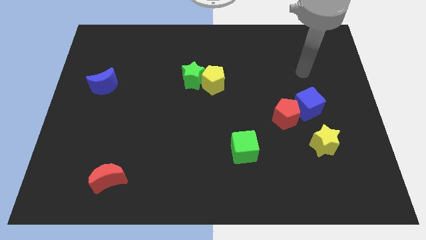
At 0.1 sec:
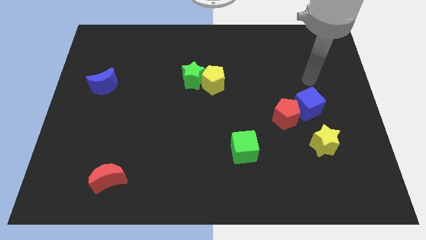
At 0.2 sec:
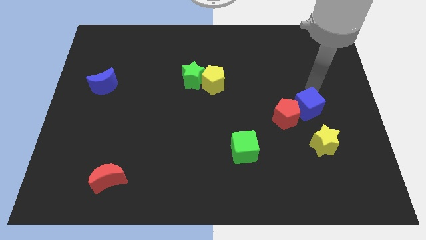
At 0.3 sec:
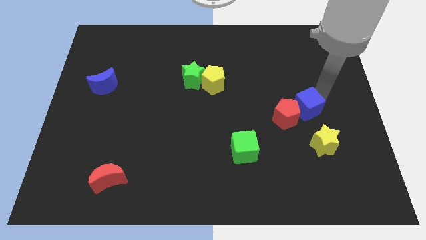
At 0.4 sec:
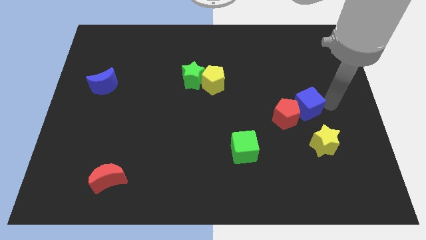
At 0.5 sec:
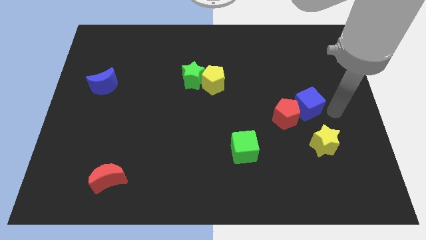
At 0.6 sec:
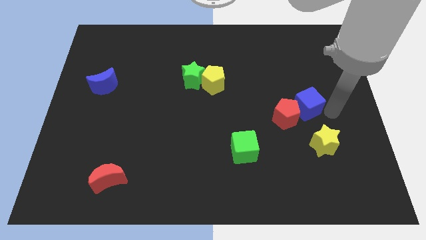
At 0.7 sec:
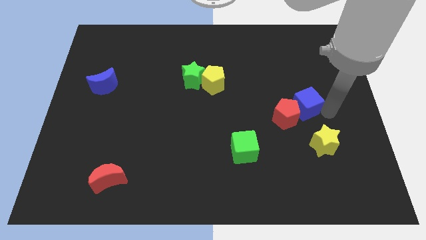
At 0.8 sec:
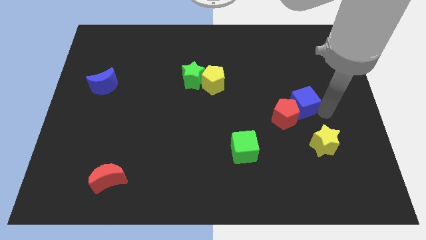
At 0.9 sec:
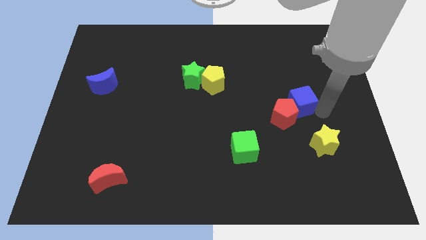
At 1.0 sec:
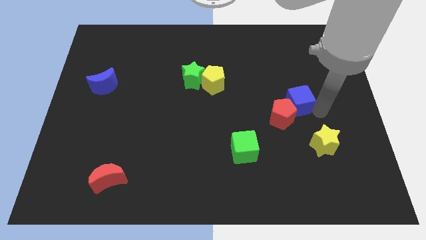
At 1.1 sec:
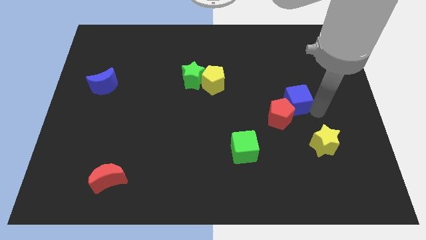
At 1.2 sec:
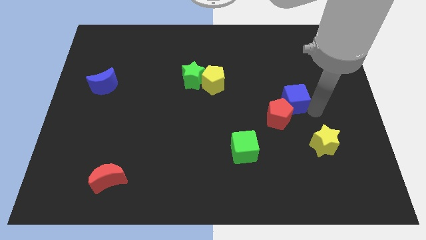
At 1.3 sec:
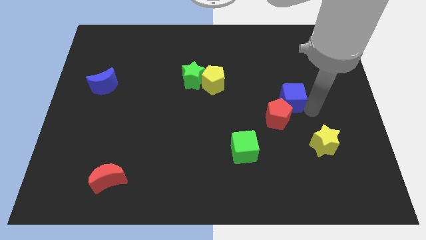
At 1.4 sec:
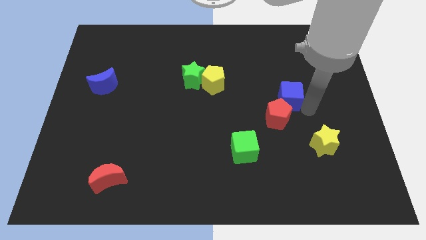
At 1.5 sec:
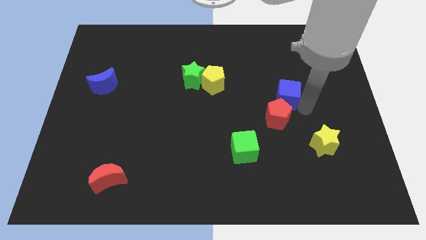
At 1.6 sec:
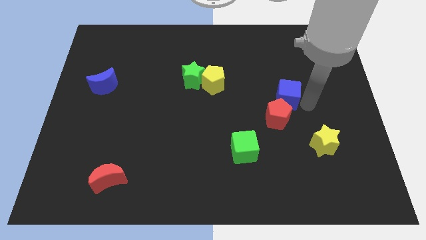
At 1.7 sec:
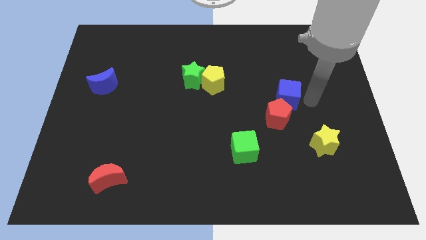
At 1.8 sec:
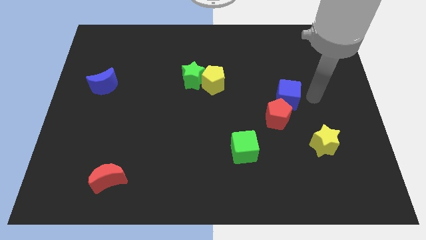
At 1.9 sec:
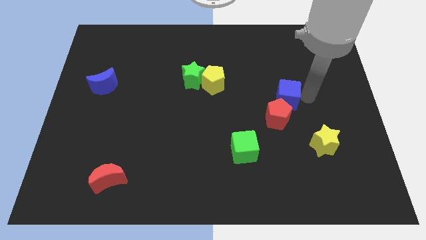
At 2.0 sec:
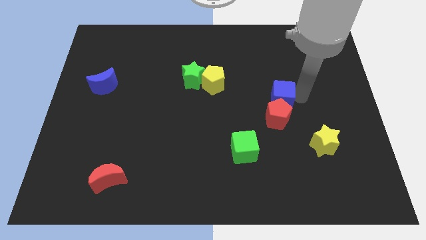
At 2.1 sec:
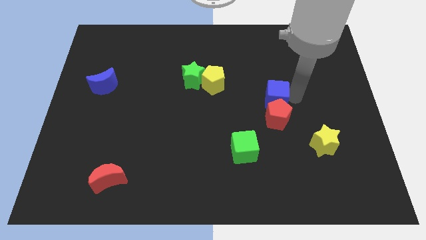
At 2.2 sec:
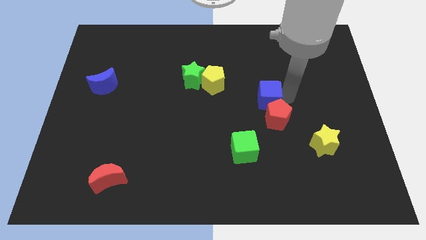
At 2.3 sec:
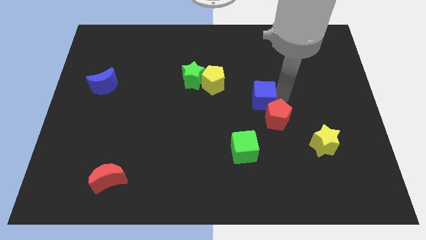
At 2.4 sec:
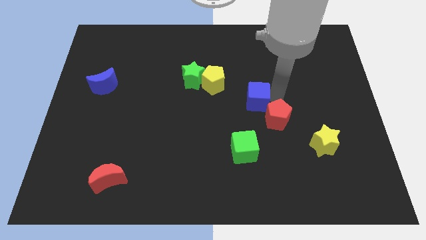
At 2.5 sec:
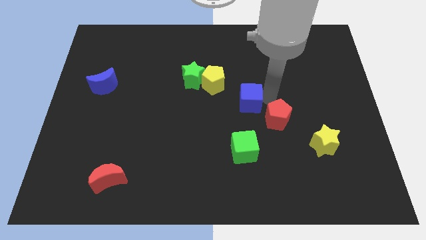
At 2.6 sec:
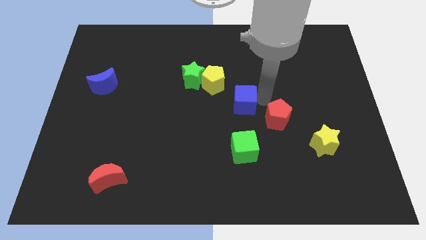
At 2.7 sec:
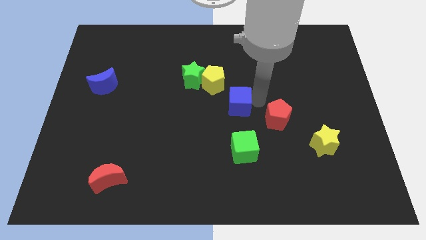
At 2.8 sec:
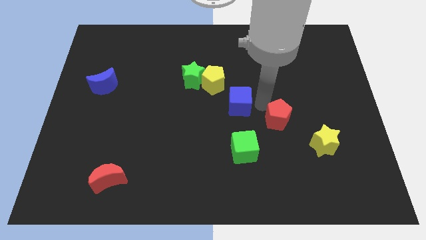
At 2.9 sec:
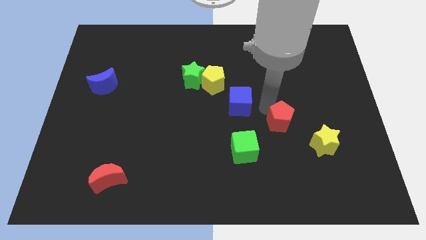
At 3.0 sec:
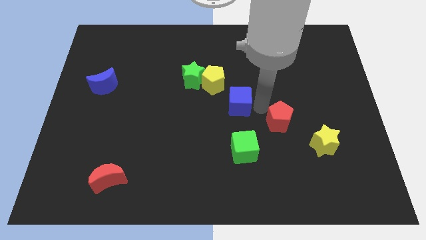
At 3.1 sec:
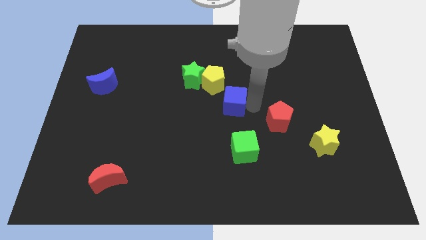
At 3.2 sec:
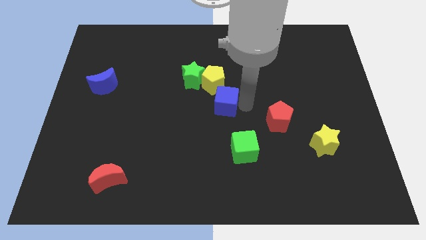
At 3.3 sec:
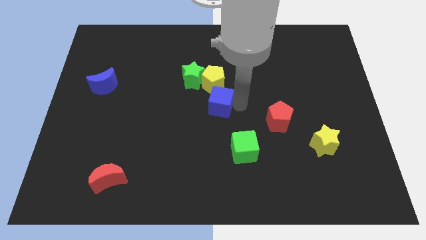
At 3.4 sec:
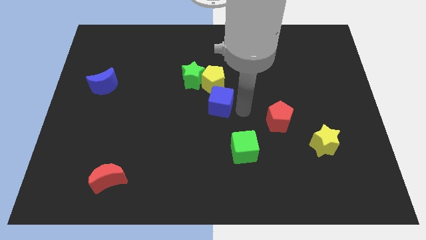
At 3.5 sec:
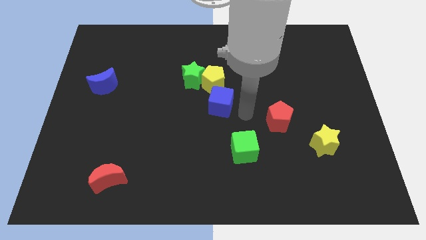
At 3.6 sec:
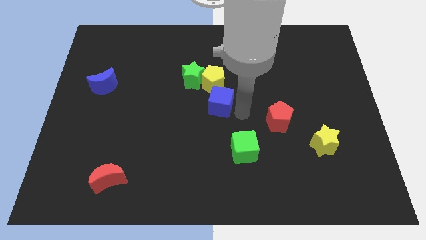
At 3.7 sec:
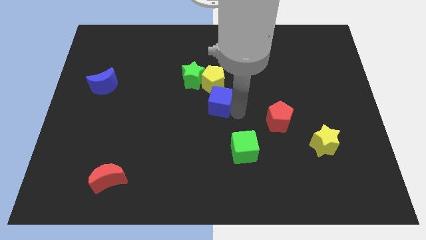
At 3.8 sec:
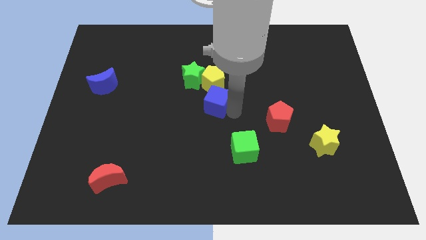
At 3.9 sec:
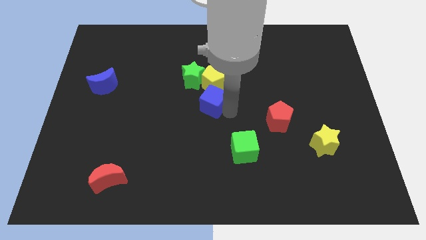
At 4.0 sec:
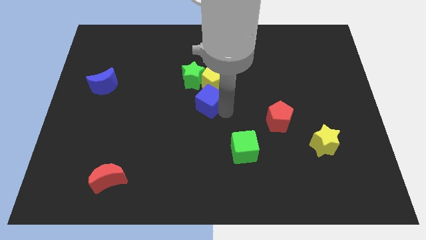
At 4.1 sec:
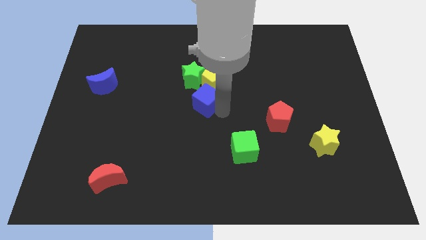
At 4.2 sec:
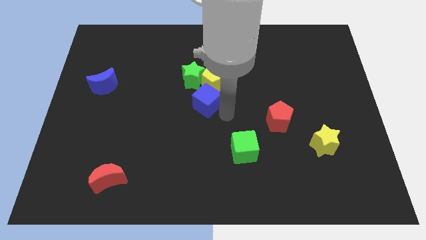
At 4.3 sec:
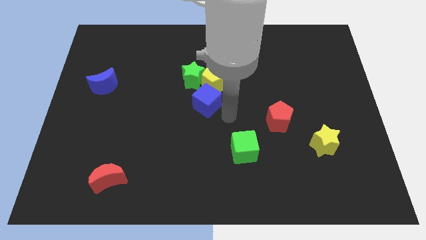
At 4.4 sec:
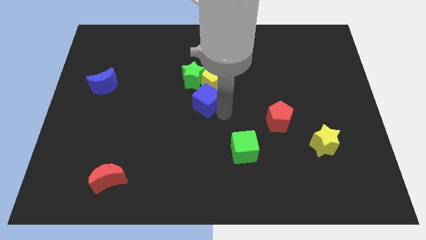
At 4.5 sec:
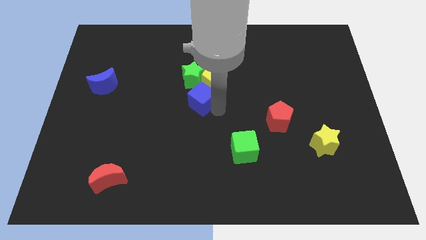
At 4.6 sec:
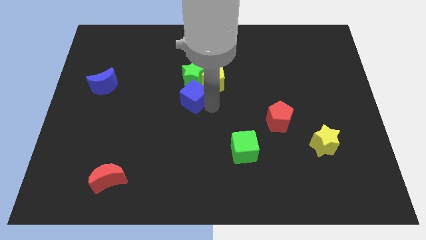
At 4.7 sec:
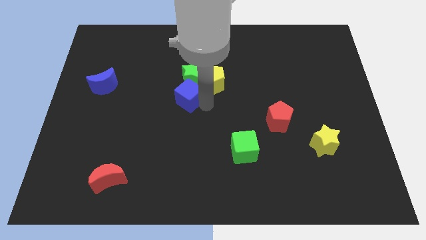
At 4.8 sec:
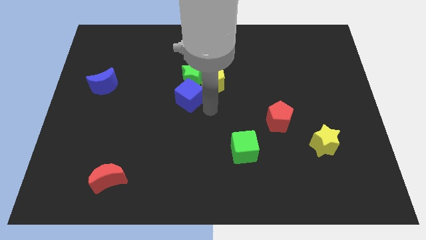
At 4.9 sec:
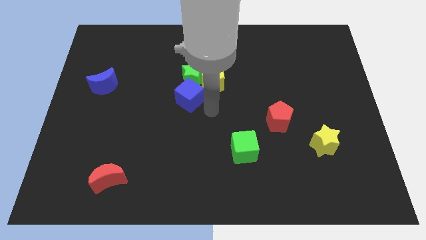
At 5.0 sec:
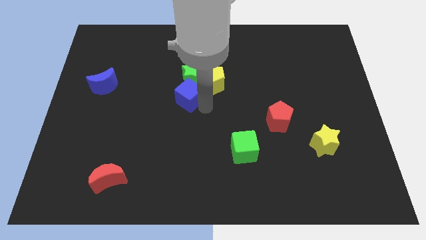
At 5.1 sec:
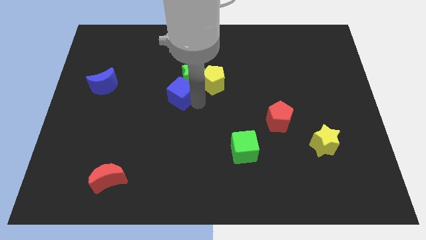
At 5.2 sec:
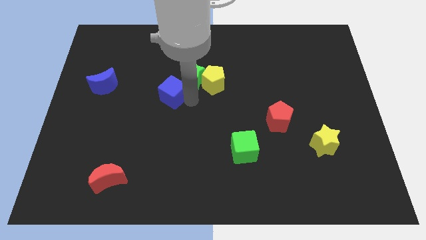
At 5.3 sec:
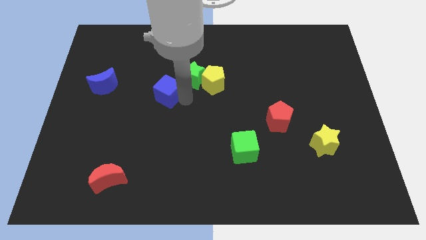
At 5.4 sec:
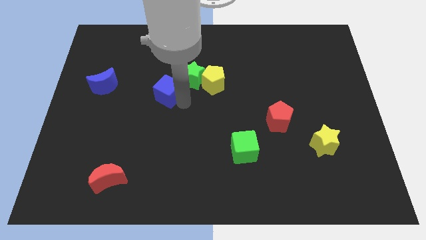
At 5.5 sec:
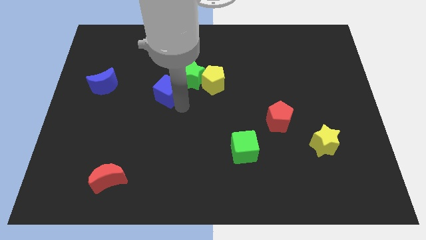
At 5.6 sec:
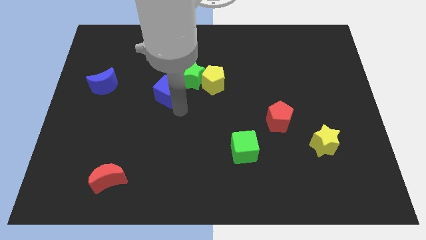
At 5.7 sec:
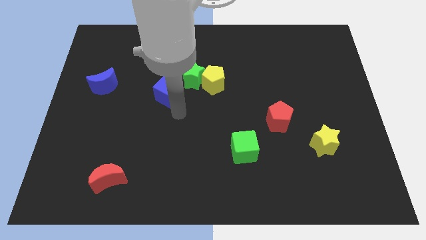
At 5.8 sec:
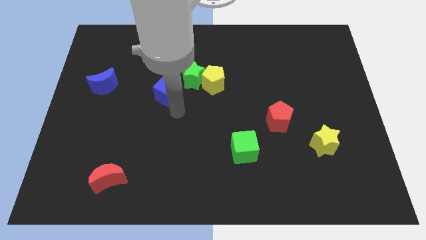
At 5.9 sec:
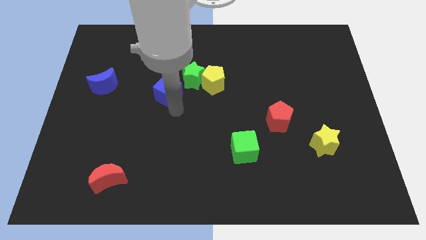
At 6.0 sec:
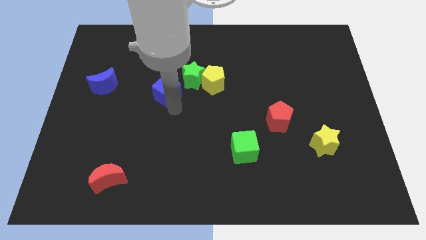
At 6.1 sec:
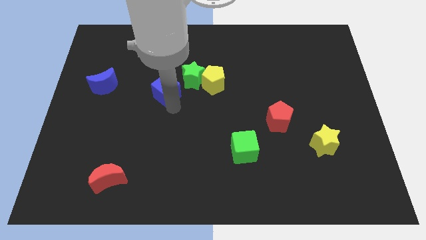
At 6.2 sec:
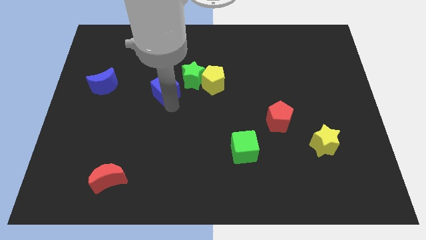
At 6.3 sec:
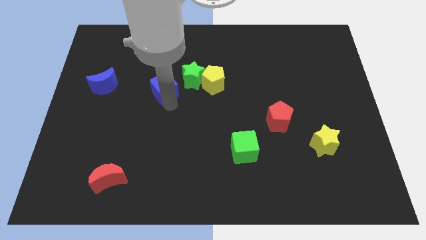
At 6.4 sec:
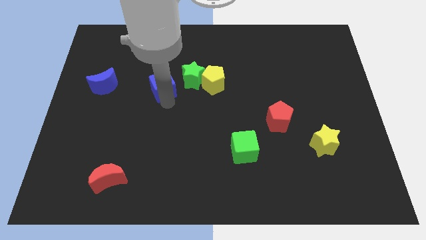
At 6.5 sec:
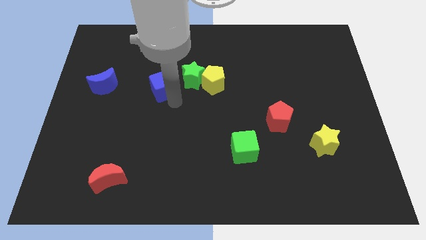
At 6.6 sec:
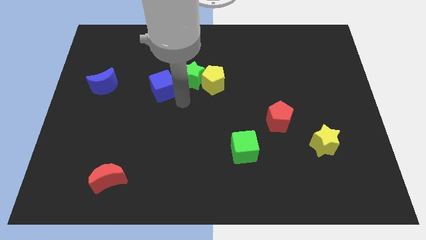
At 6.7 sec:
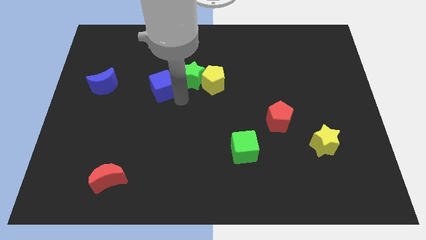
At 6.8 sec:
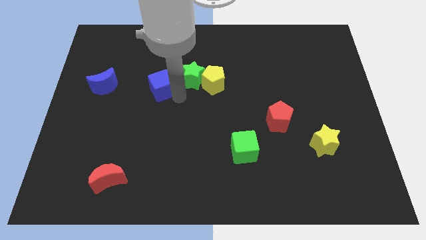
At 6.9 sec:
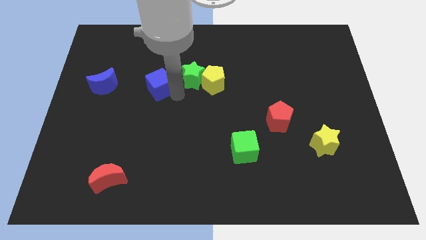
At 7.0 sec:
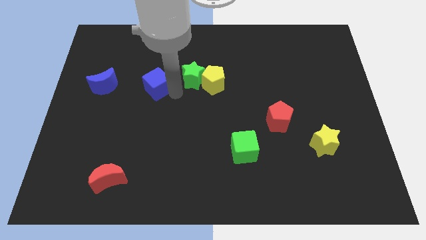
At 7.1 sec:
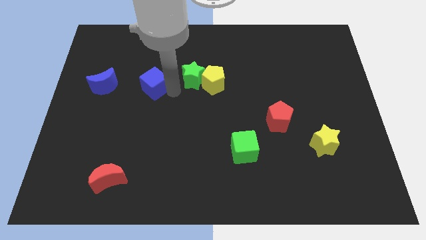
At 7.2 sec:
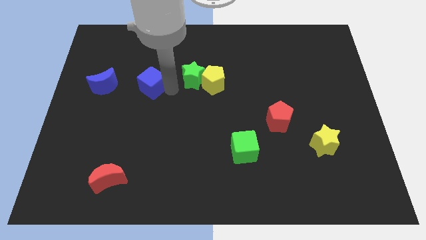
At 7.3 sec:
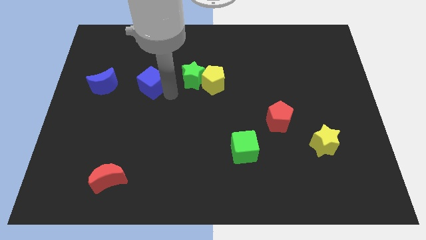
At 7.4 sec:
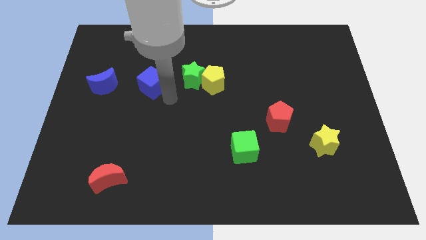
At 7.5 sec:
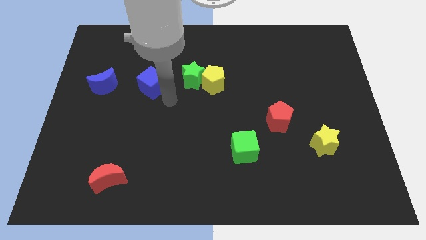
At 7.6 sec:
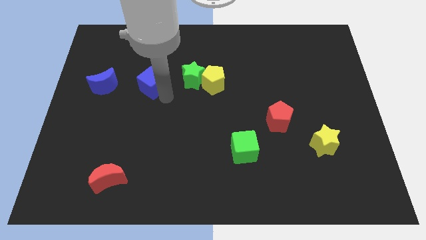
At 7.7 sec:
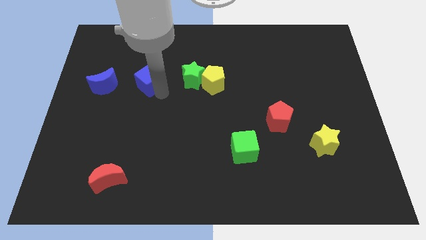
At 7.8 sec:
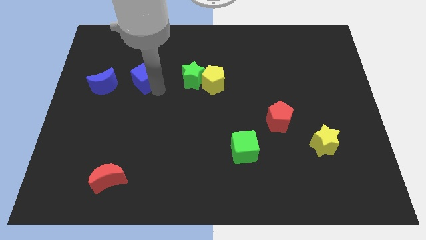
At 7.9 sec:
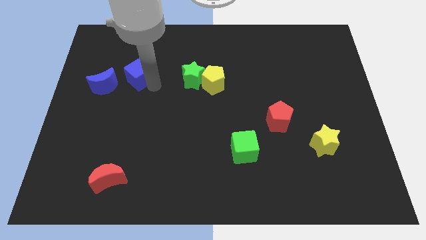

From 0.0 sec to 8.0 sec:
push the blue cube to the top right of the blue moon

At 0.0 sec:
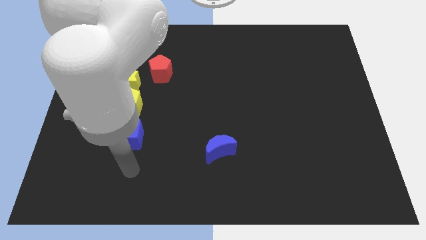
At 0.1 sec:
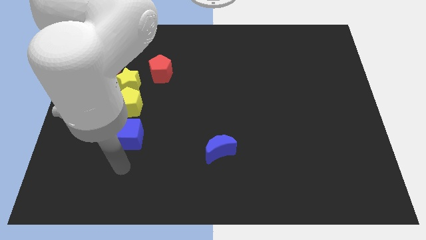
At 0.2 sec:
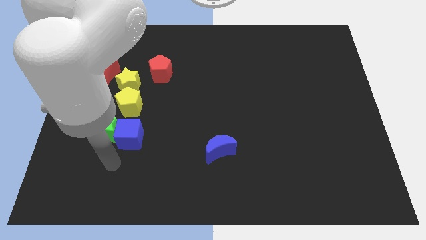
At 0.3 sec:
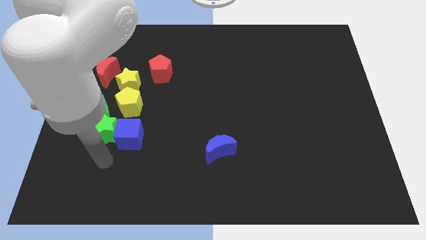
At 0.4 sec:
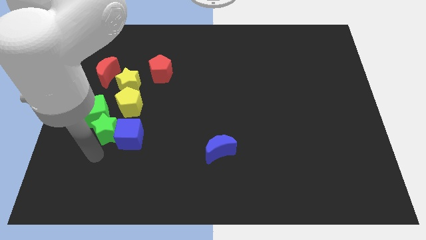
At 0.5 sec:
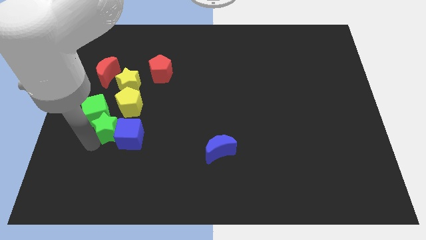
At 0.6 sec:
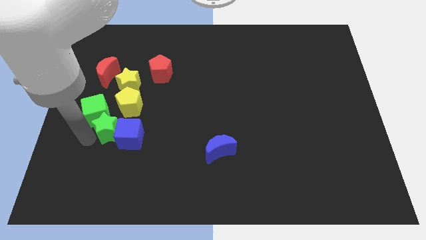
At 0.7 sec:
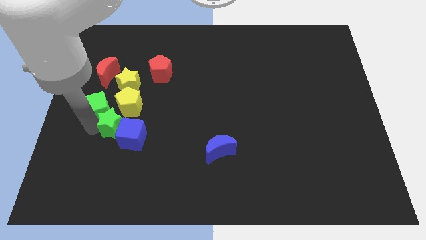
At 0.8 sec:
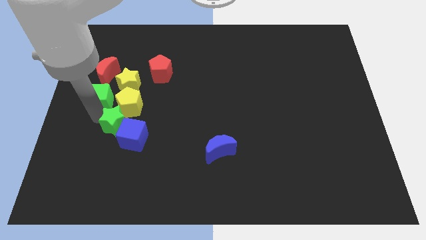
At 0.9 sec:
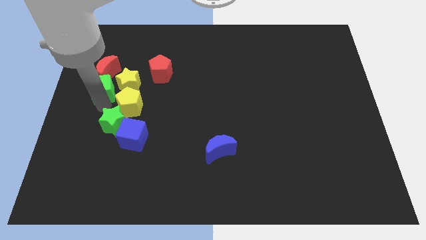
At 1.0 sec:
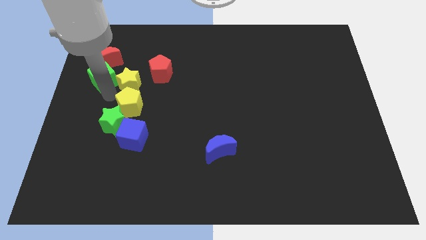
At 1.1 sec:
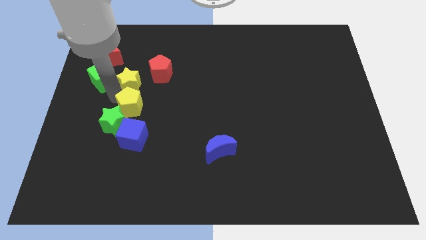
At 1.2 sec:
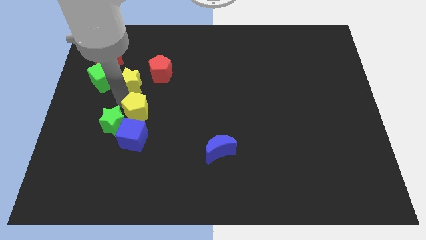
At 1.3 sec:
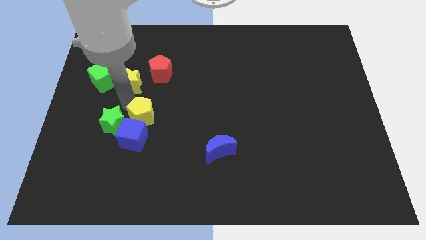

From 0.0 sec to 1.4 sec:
push the yellow pentagon to the top right side of the blue cube
